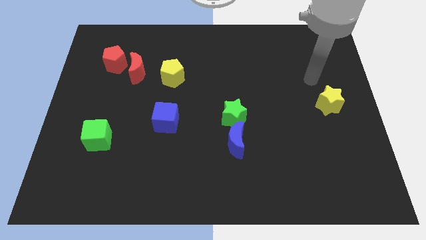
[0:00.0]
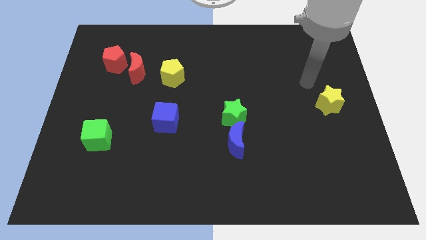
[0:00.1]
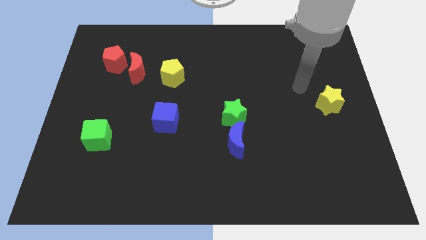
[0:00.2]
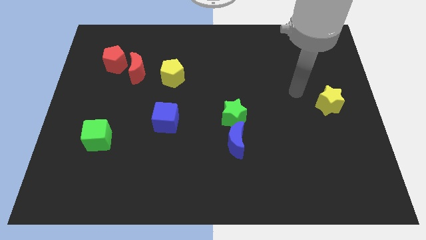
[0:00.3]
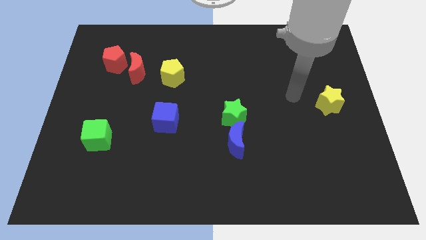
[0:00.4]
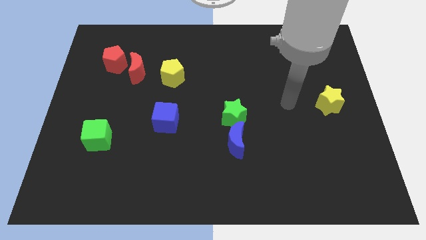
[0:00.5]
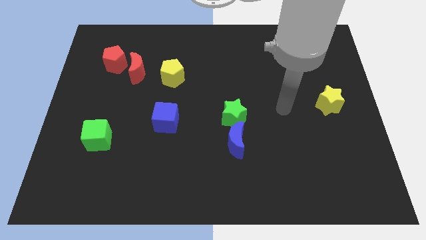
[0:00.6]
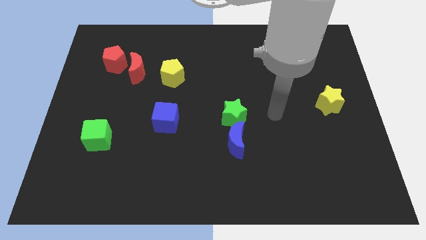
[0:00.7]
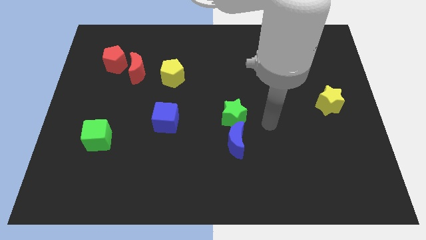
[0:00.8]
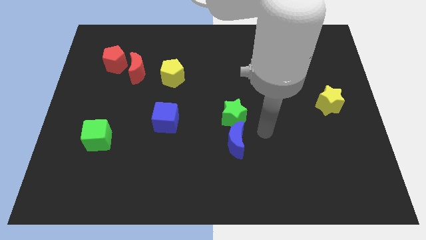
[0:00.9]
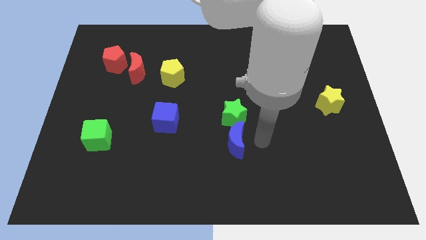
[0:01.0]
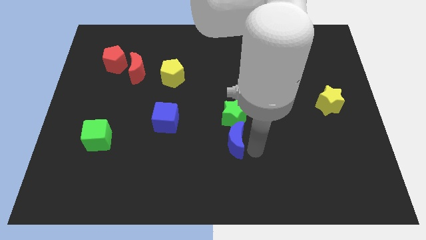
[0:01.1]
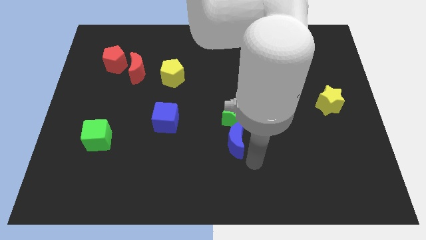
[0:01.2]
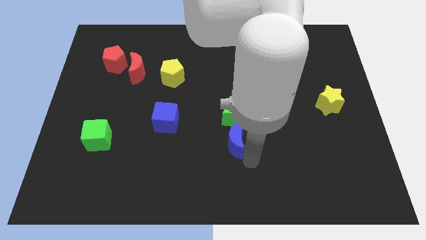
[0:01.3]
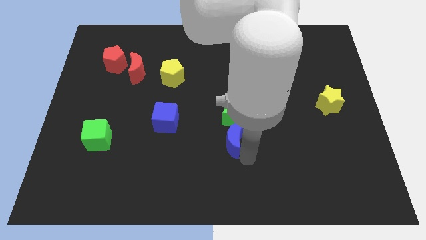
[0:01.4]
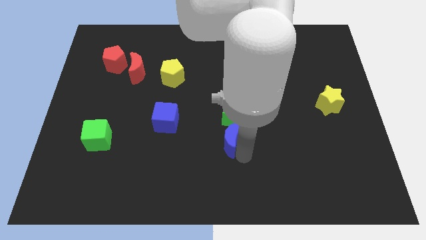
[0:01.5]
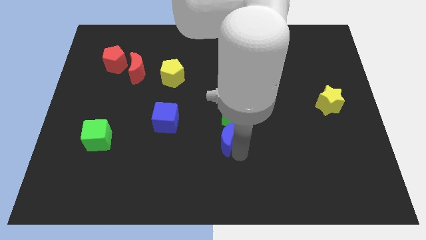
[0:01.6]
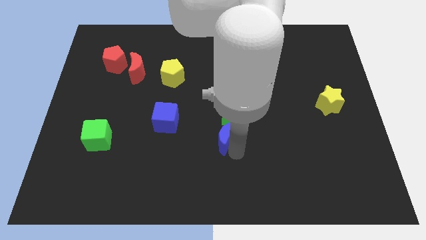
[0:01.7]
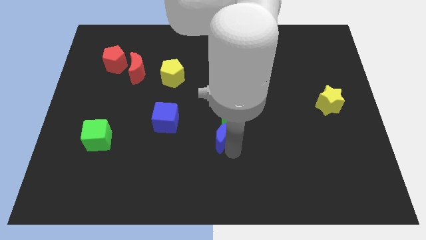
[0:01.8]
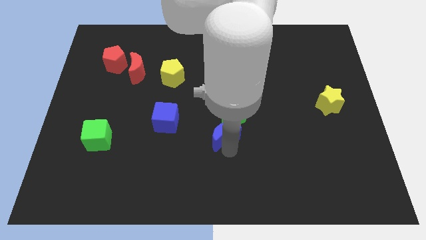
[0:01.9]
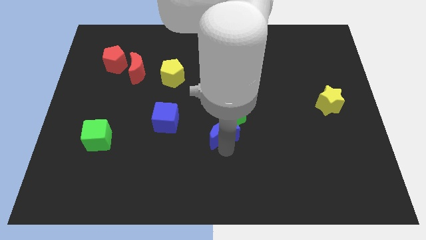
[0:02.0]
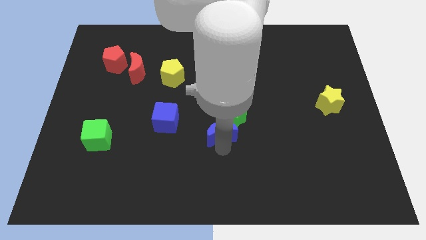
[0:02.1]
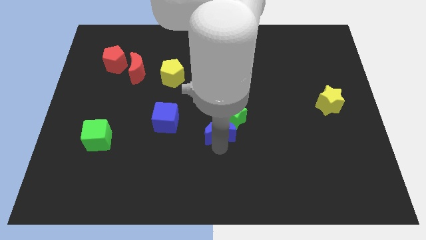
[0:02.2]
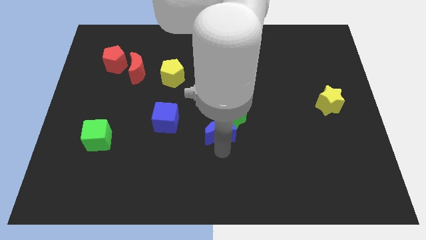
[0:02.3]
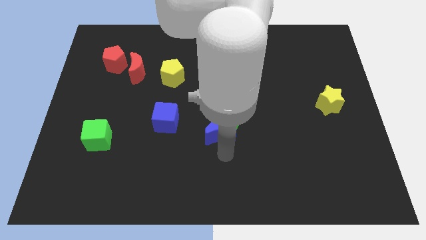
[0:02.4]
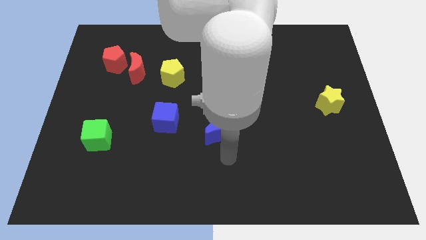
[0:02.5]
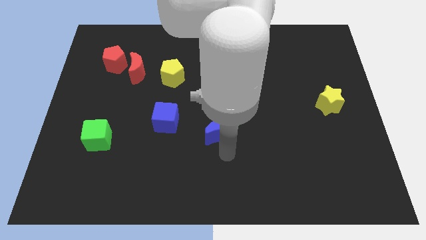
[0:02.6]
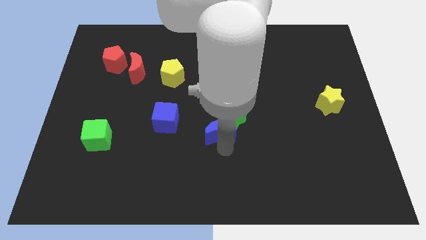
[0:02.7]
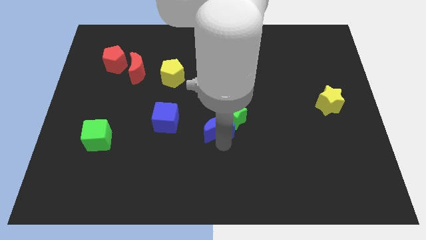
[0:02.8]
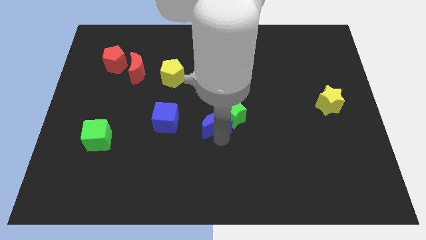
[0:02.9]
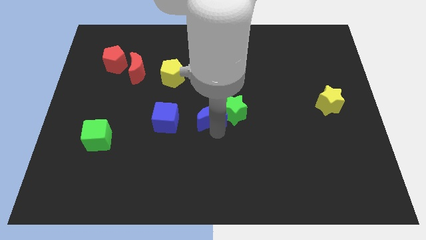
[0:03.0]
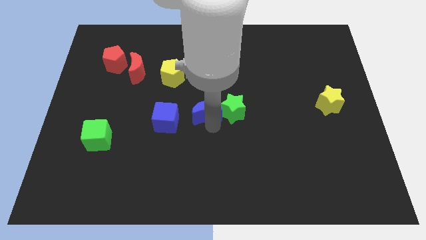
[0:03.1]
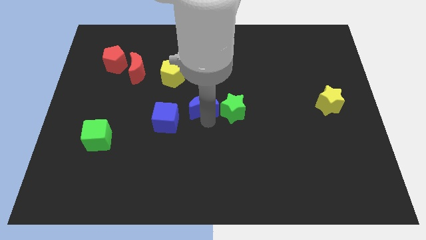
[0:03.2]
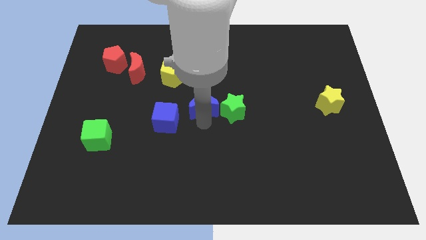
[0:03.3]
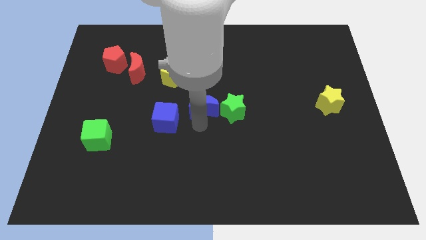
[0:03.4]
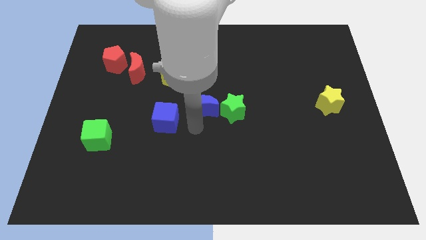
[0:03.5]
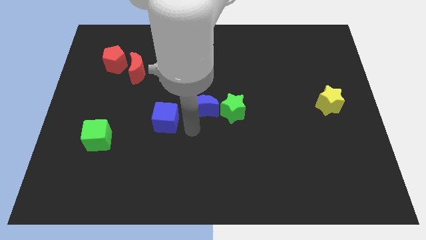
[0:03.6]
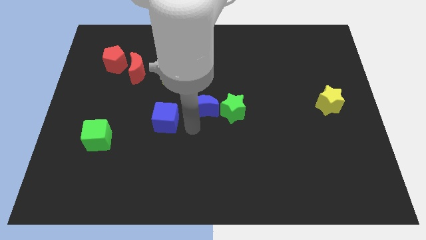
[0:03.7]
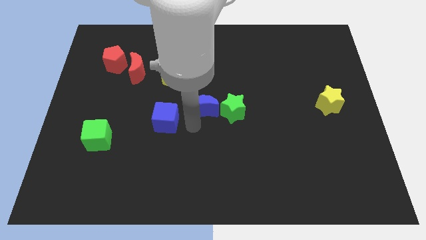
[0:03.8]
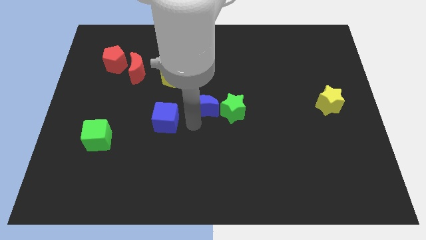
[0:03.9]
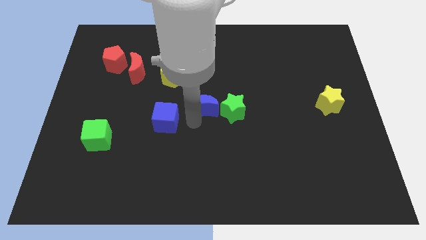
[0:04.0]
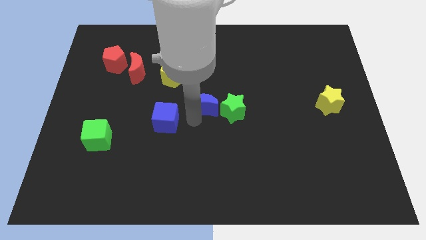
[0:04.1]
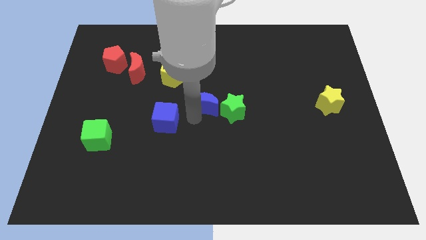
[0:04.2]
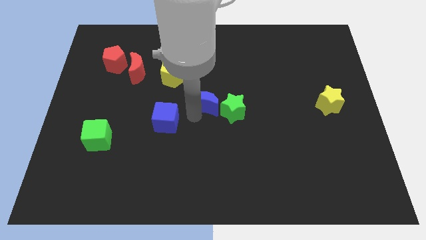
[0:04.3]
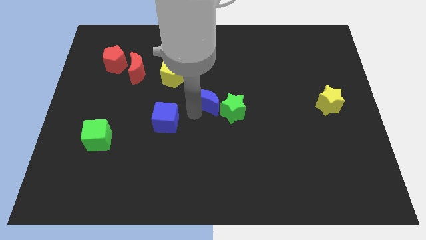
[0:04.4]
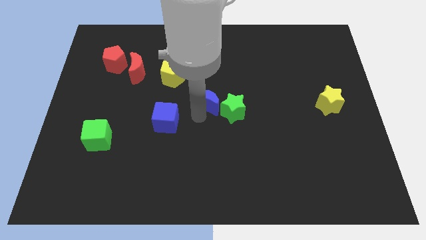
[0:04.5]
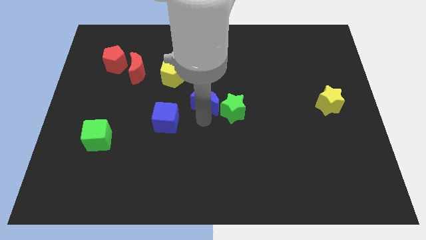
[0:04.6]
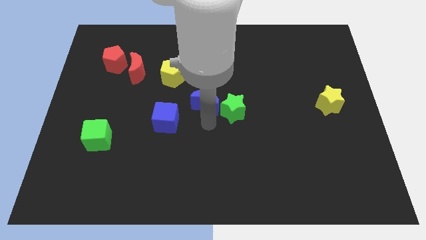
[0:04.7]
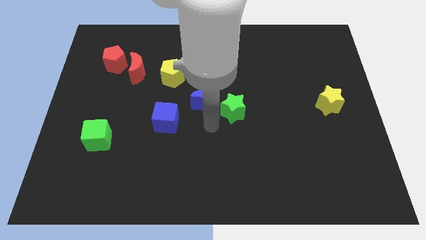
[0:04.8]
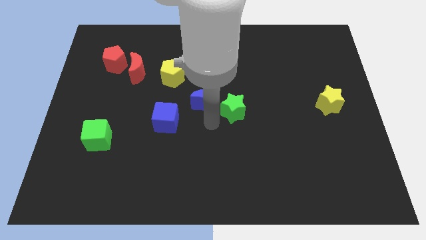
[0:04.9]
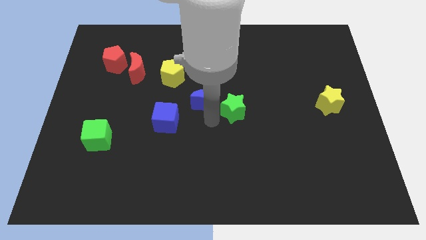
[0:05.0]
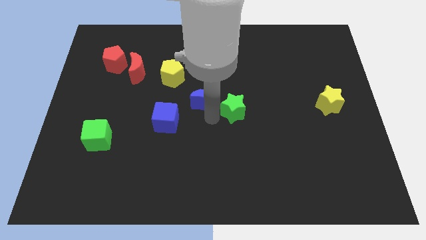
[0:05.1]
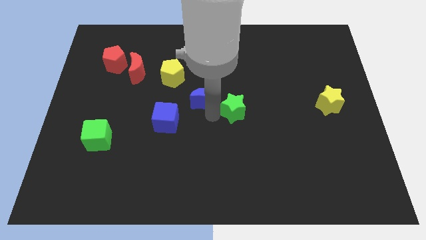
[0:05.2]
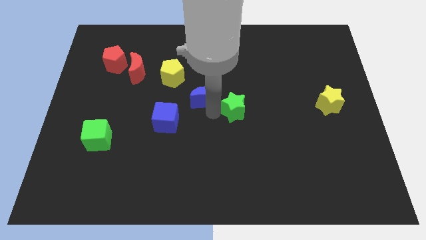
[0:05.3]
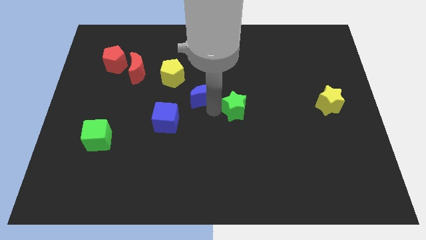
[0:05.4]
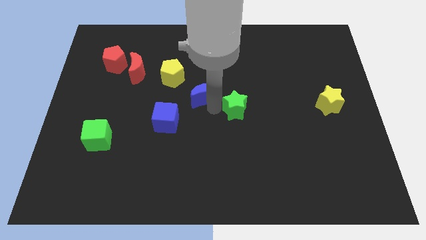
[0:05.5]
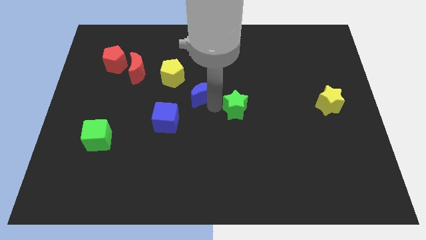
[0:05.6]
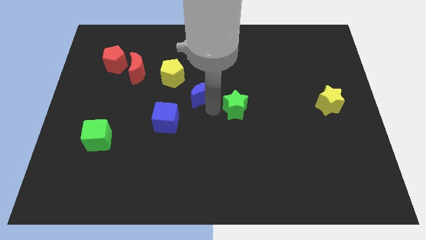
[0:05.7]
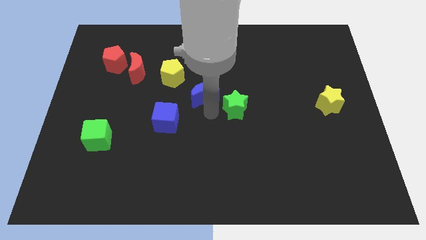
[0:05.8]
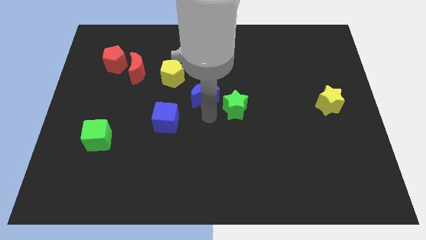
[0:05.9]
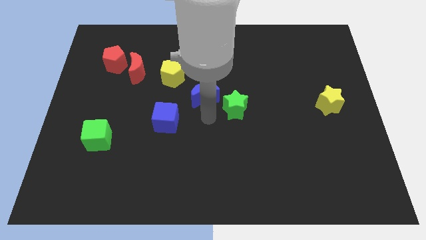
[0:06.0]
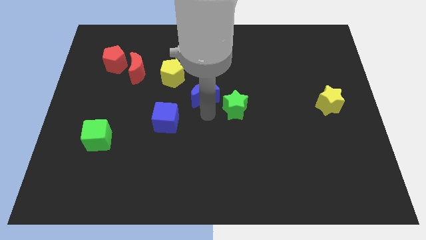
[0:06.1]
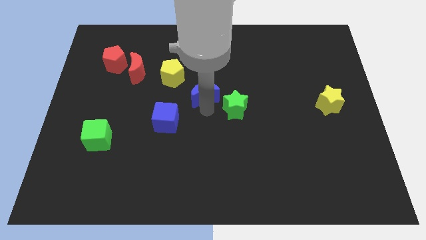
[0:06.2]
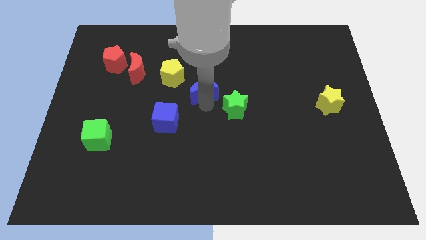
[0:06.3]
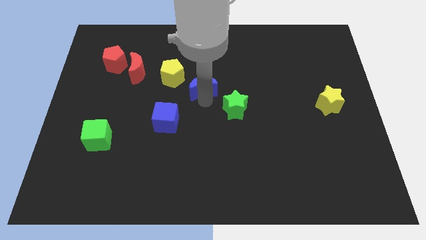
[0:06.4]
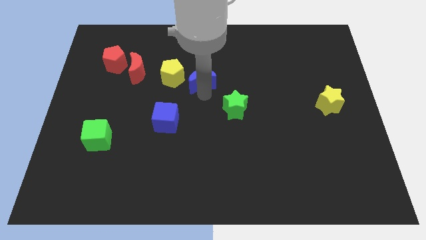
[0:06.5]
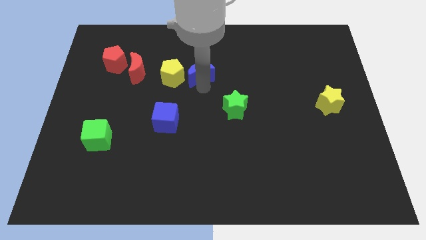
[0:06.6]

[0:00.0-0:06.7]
slide the blue moon to the top right of the yellow pentagon
